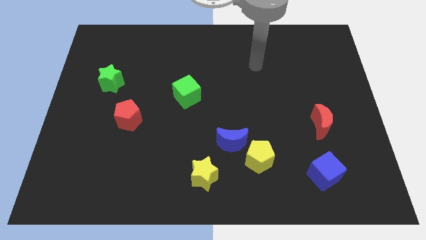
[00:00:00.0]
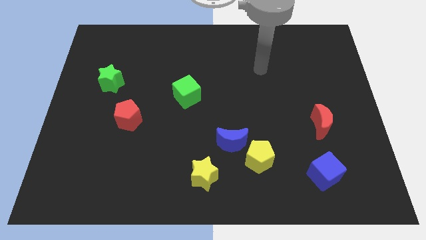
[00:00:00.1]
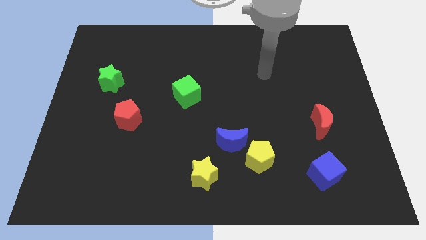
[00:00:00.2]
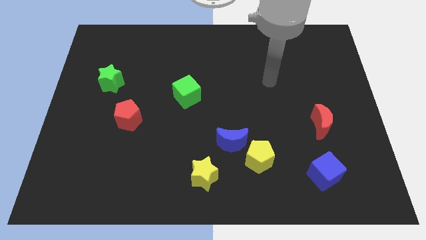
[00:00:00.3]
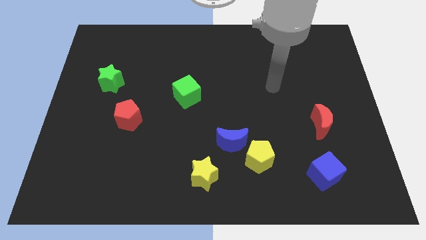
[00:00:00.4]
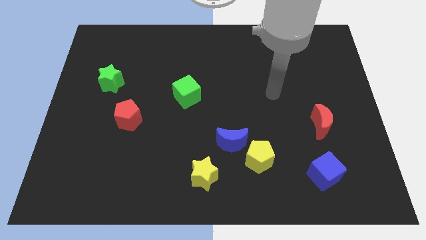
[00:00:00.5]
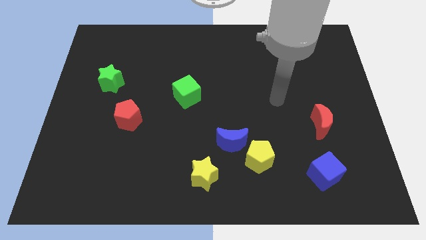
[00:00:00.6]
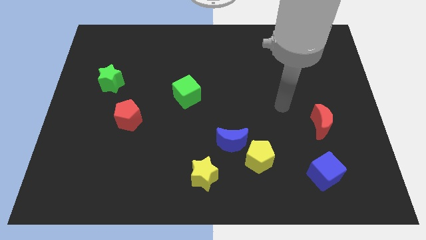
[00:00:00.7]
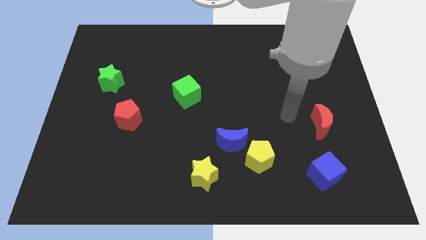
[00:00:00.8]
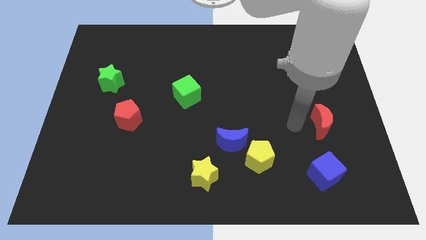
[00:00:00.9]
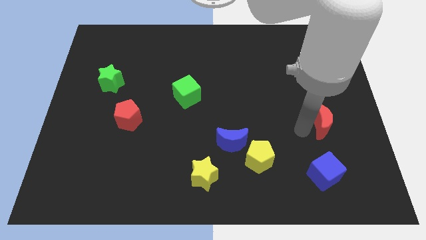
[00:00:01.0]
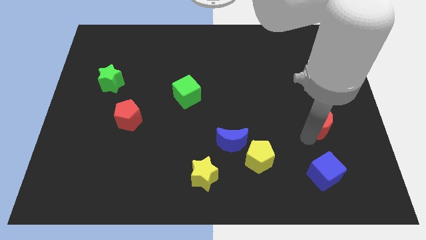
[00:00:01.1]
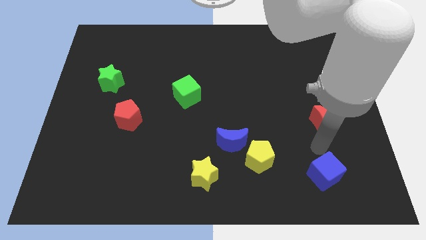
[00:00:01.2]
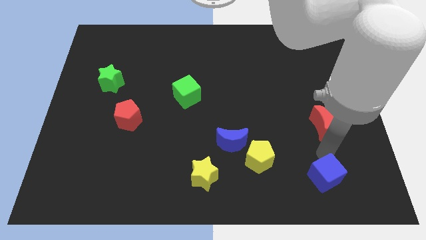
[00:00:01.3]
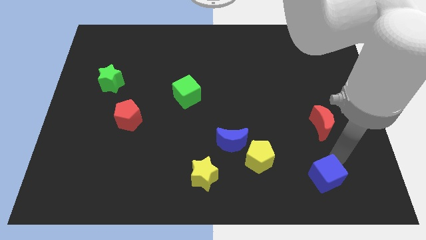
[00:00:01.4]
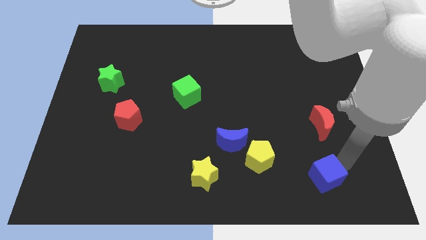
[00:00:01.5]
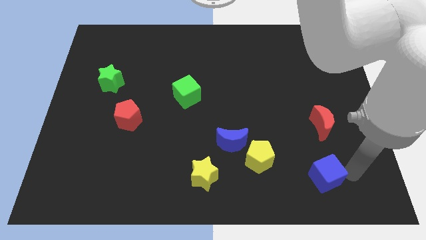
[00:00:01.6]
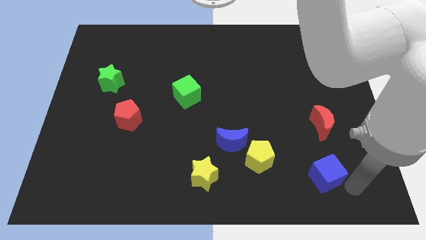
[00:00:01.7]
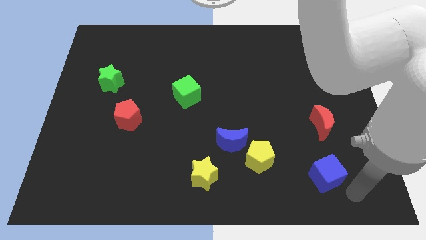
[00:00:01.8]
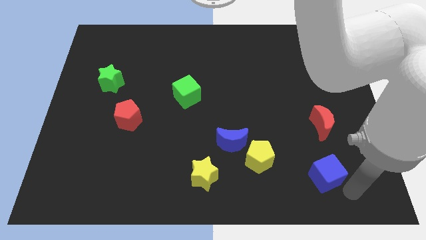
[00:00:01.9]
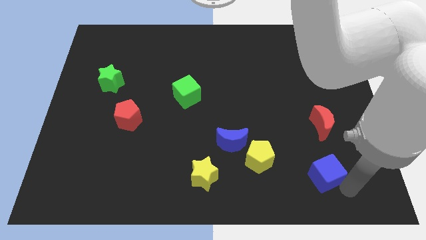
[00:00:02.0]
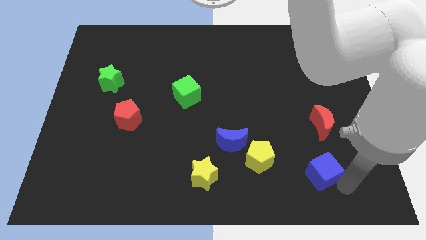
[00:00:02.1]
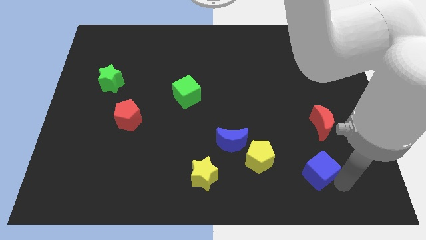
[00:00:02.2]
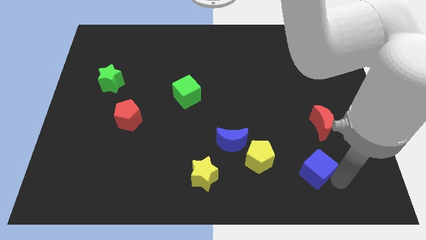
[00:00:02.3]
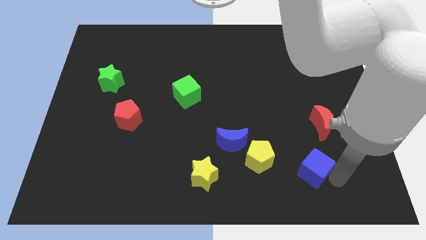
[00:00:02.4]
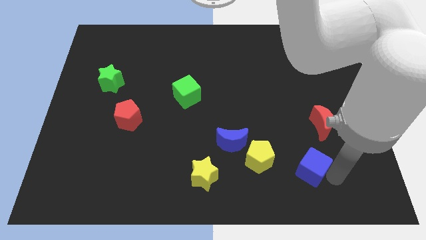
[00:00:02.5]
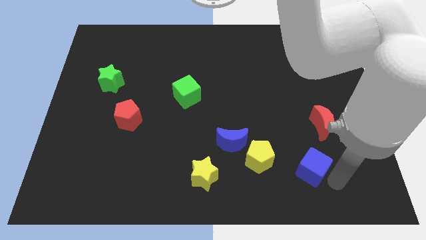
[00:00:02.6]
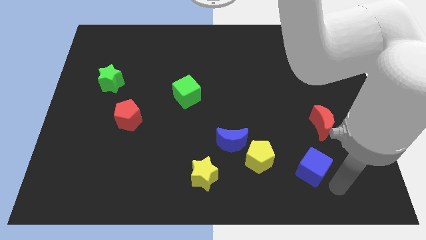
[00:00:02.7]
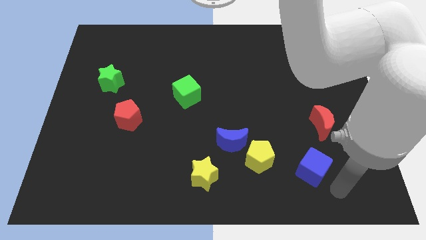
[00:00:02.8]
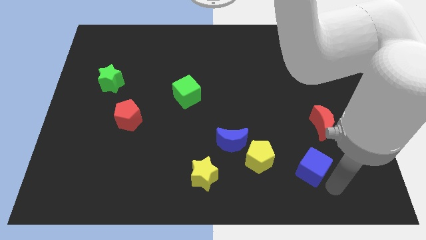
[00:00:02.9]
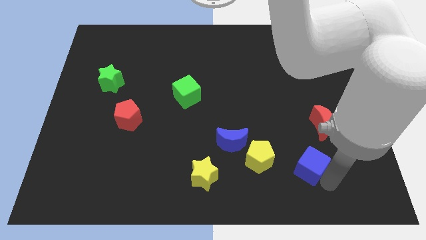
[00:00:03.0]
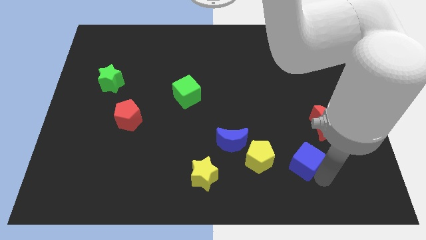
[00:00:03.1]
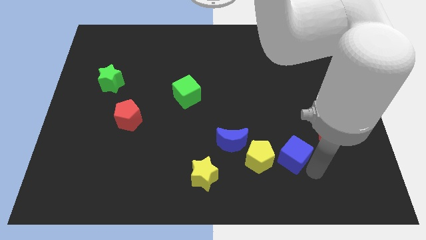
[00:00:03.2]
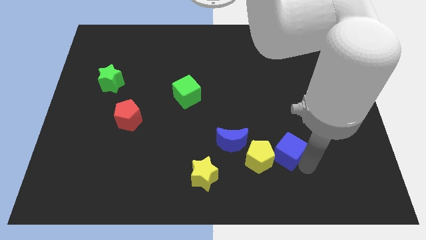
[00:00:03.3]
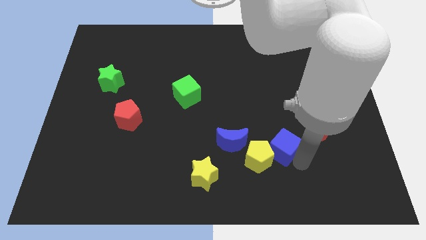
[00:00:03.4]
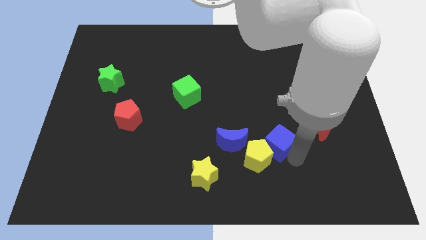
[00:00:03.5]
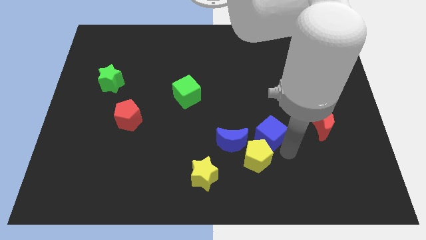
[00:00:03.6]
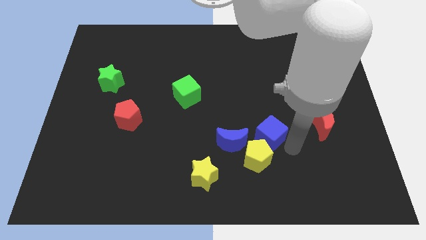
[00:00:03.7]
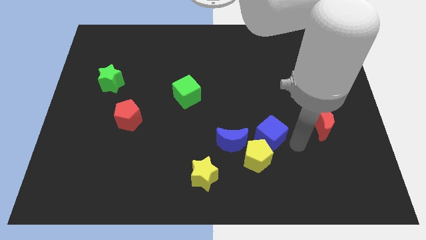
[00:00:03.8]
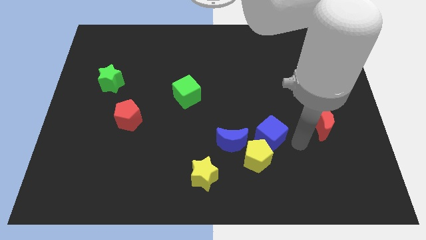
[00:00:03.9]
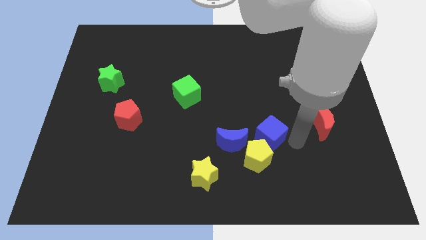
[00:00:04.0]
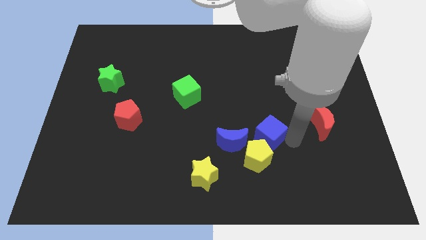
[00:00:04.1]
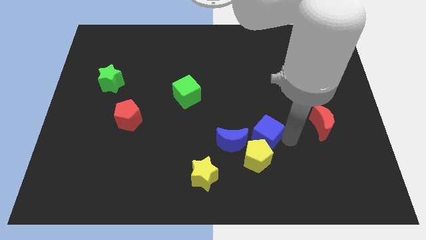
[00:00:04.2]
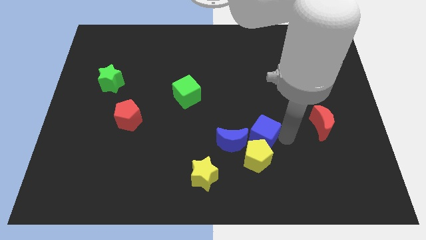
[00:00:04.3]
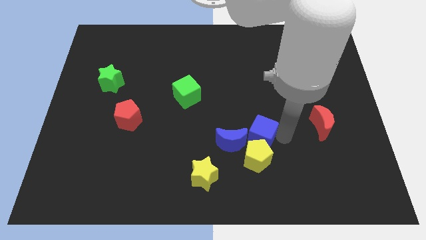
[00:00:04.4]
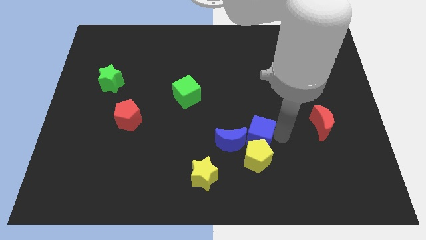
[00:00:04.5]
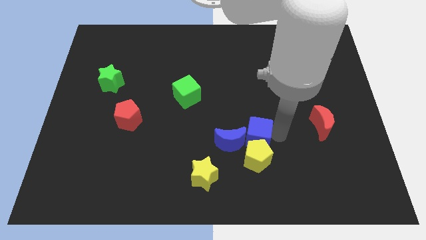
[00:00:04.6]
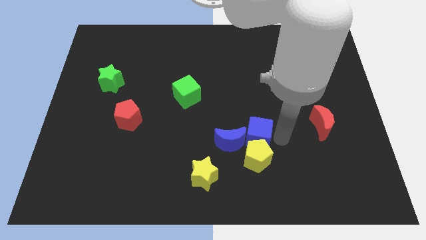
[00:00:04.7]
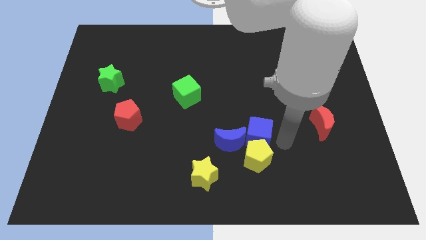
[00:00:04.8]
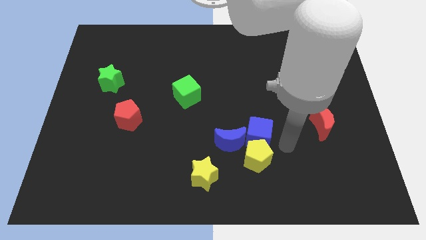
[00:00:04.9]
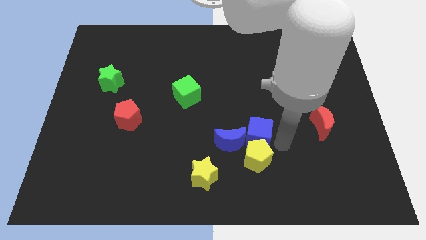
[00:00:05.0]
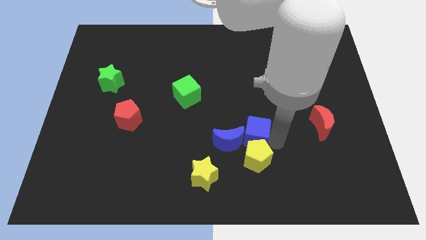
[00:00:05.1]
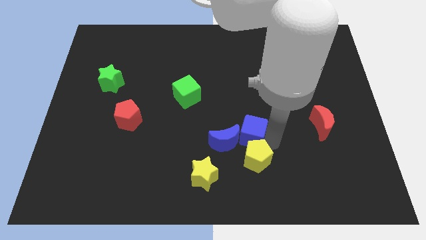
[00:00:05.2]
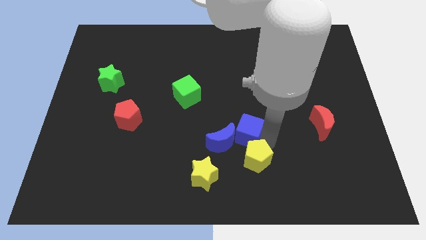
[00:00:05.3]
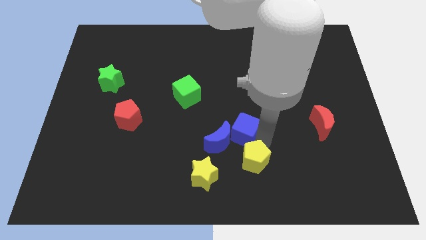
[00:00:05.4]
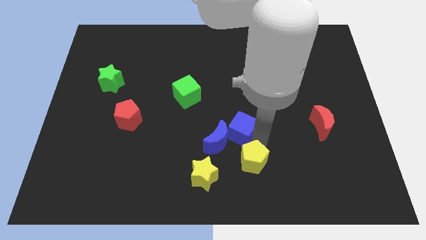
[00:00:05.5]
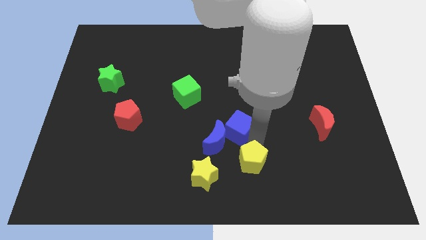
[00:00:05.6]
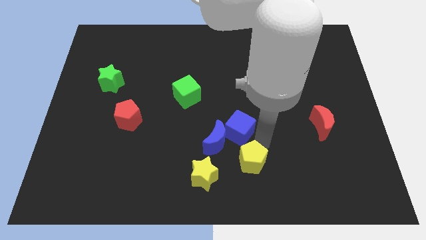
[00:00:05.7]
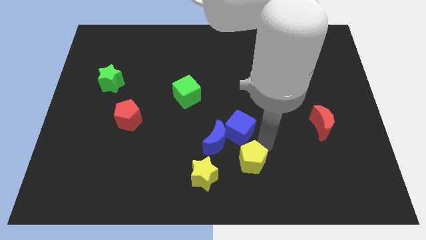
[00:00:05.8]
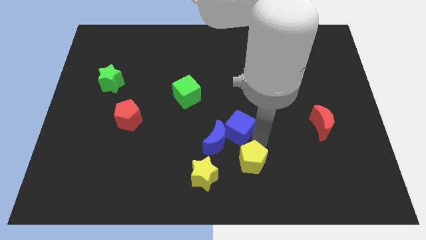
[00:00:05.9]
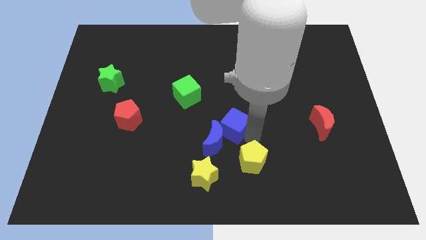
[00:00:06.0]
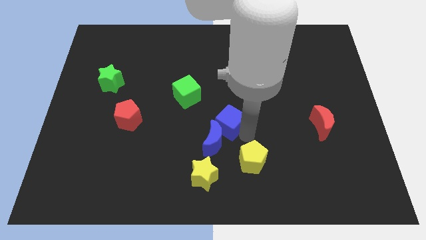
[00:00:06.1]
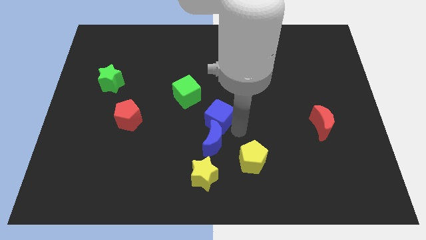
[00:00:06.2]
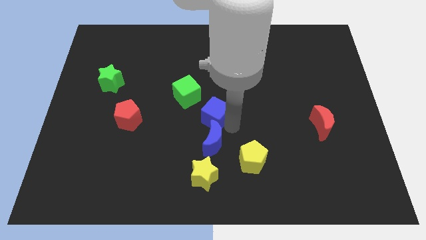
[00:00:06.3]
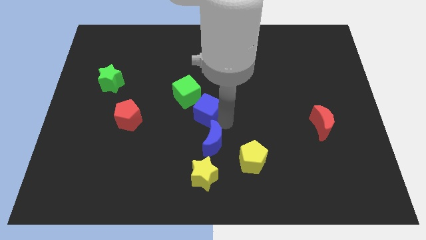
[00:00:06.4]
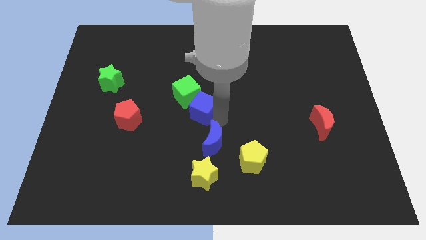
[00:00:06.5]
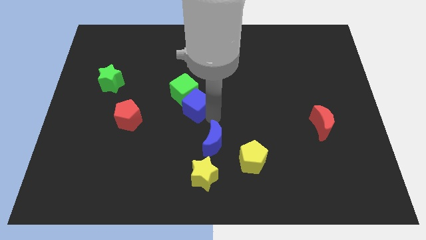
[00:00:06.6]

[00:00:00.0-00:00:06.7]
push the blue cube close to the green cube

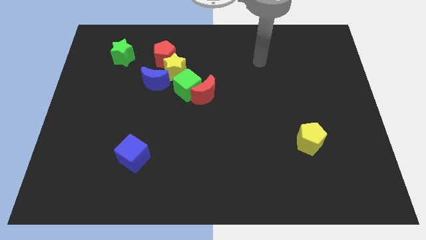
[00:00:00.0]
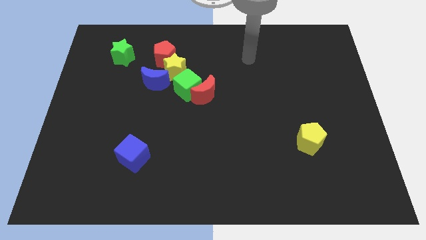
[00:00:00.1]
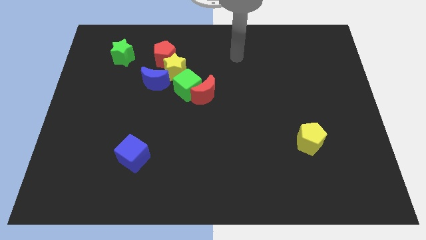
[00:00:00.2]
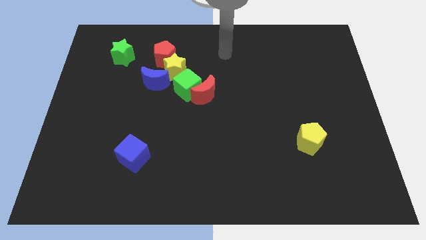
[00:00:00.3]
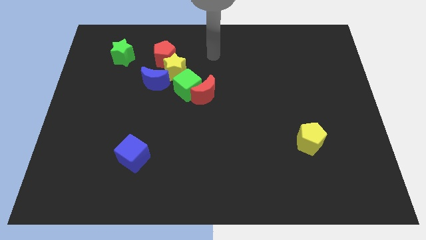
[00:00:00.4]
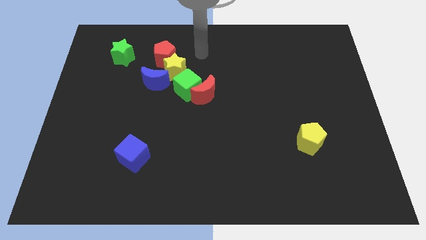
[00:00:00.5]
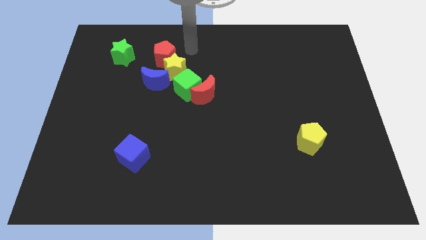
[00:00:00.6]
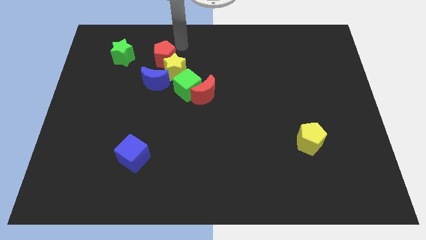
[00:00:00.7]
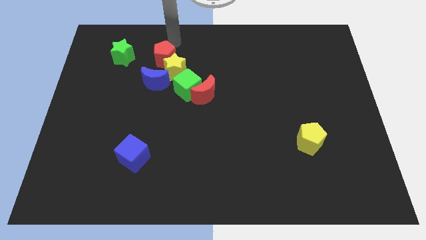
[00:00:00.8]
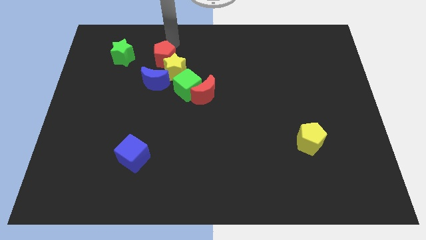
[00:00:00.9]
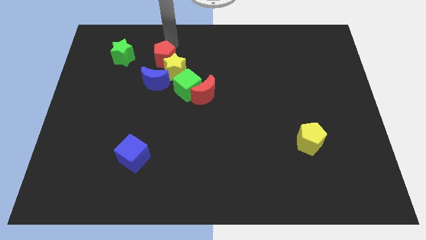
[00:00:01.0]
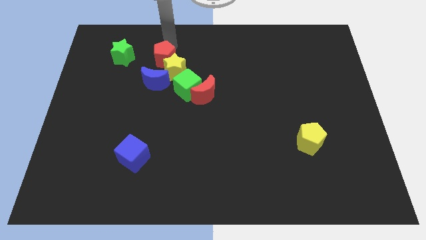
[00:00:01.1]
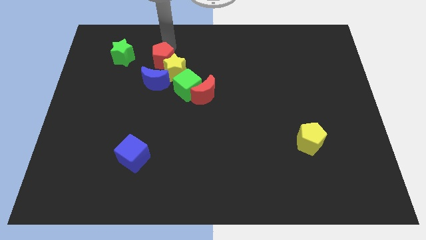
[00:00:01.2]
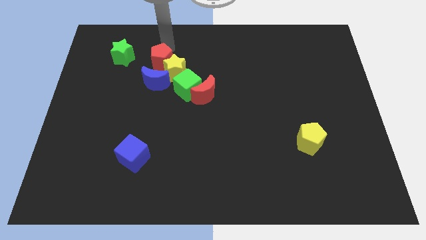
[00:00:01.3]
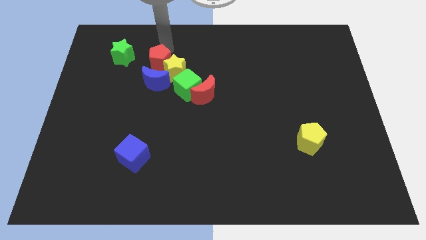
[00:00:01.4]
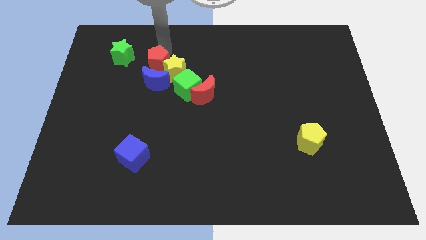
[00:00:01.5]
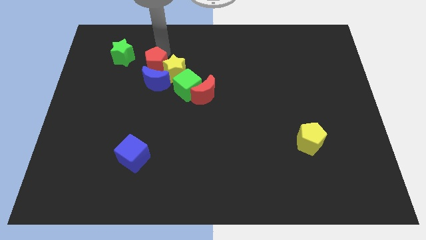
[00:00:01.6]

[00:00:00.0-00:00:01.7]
put the red pentagon next to the blue moon
